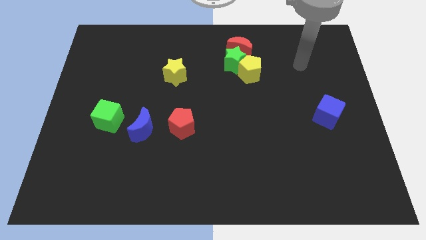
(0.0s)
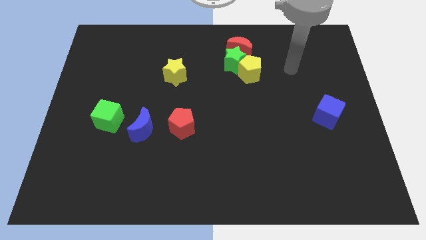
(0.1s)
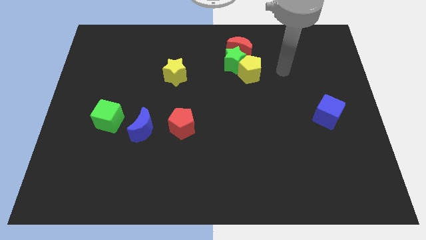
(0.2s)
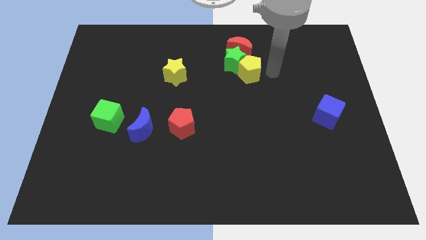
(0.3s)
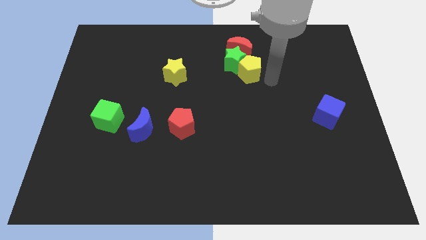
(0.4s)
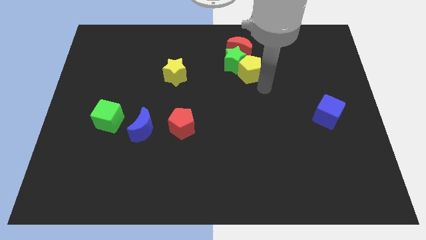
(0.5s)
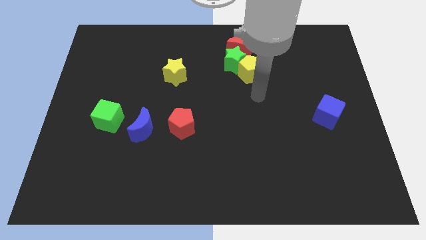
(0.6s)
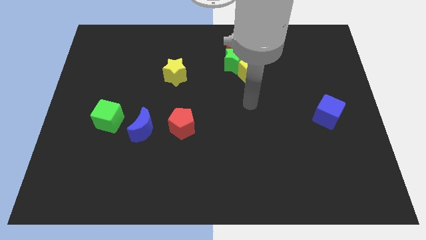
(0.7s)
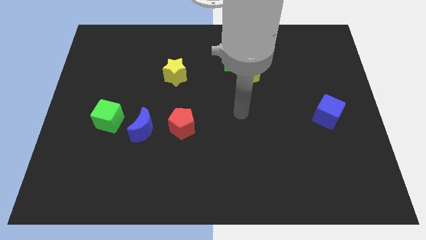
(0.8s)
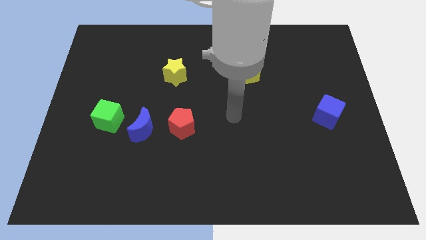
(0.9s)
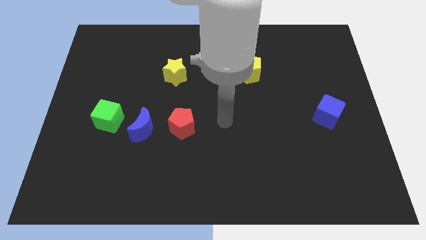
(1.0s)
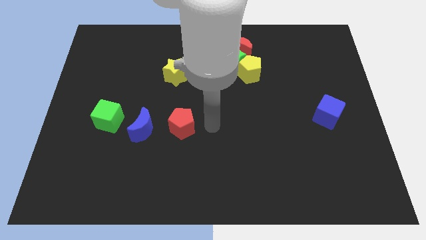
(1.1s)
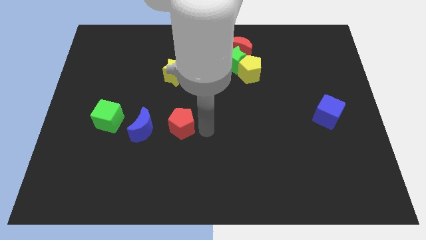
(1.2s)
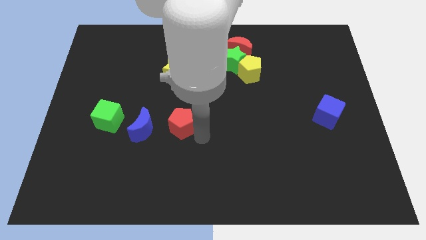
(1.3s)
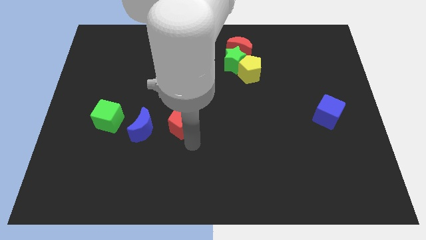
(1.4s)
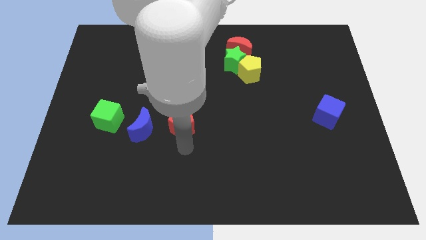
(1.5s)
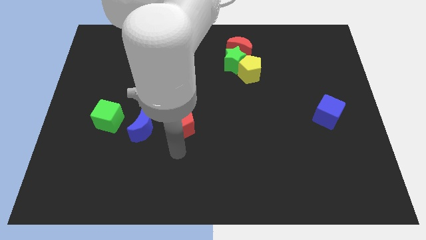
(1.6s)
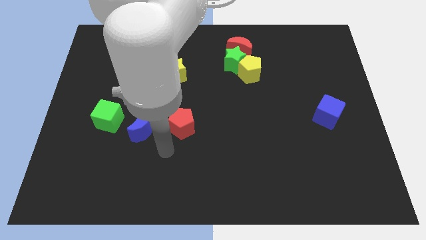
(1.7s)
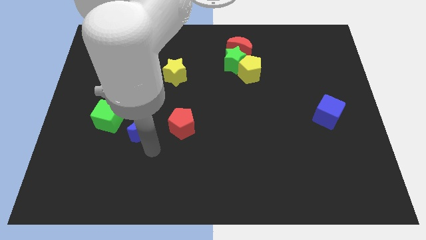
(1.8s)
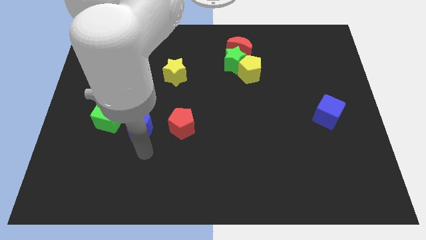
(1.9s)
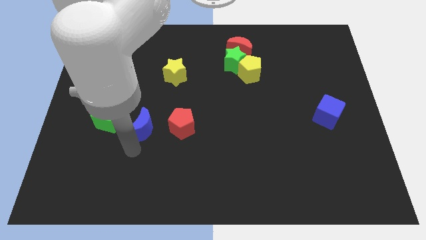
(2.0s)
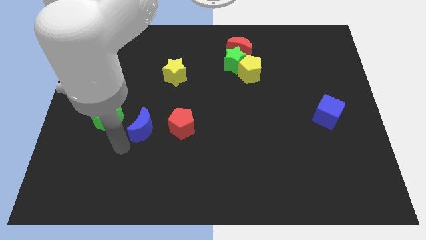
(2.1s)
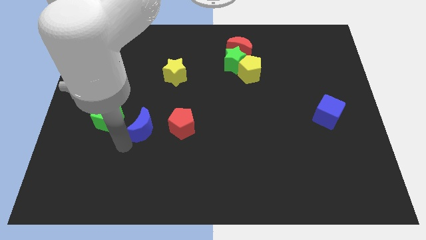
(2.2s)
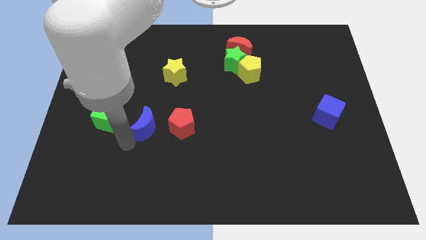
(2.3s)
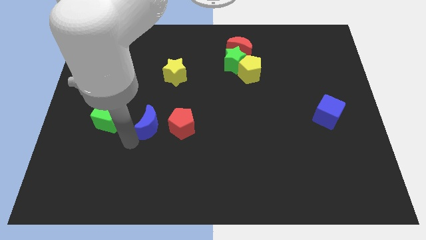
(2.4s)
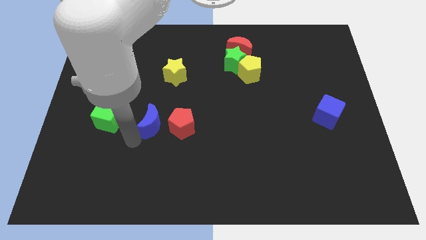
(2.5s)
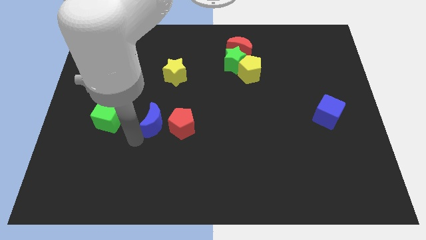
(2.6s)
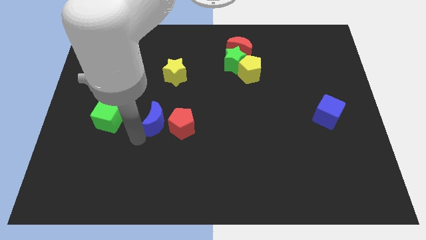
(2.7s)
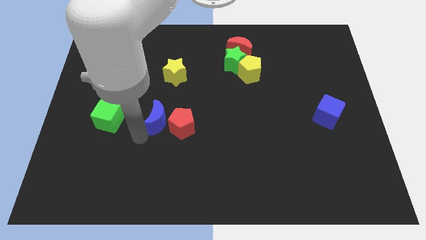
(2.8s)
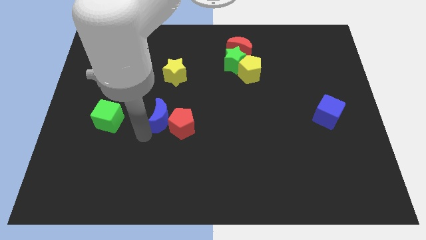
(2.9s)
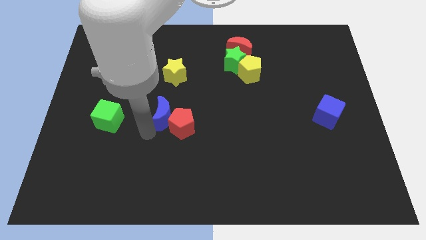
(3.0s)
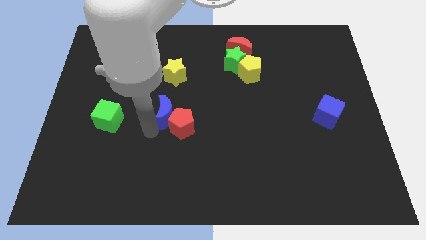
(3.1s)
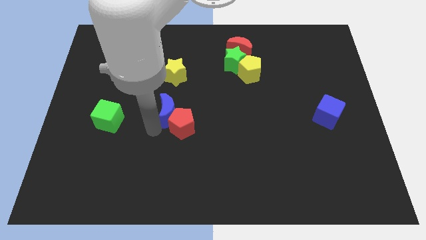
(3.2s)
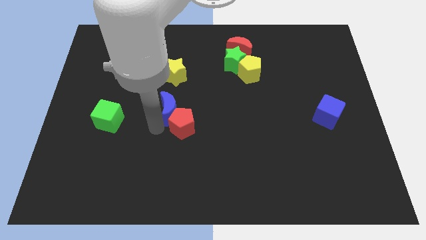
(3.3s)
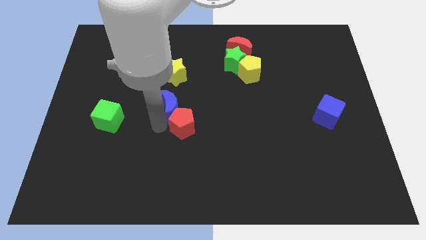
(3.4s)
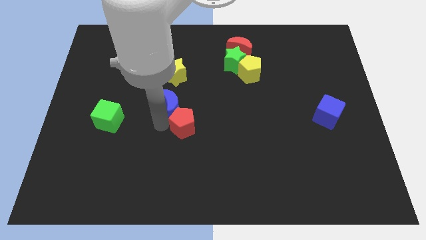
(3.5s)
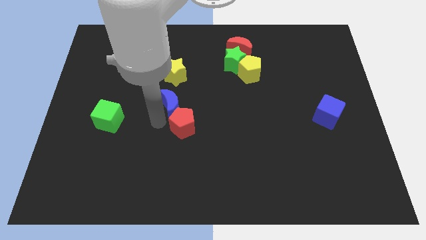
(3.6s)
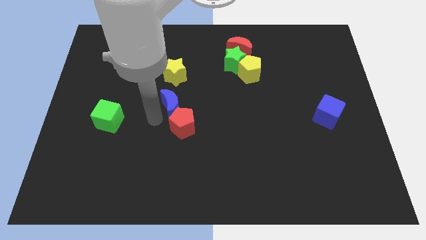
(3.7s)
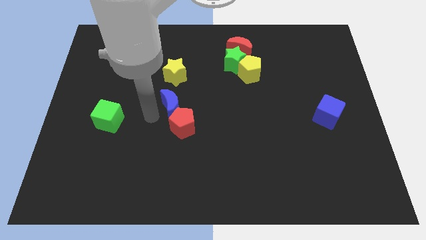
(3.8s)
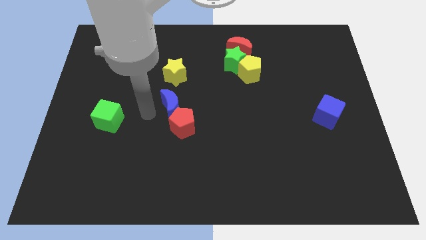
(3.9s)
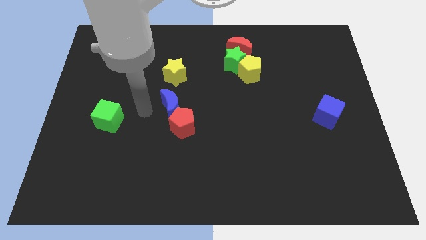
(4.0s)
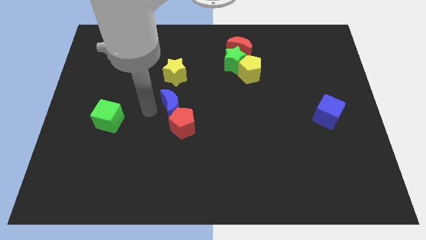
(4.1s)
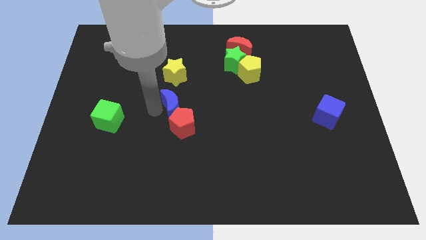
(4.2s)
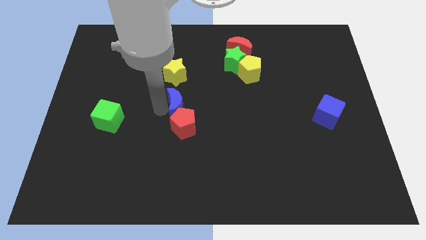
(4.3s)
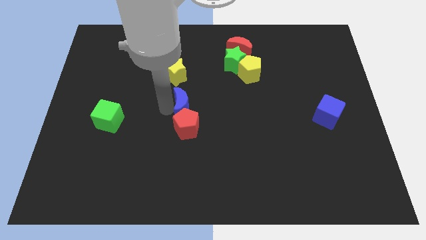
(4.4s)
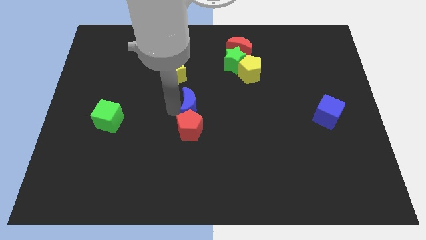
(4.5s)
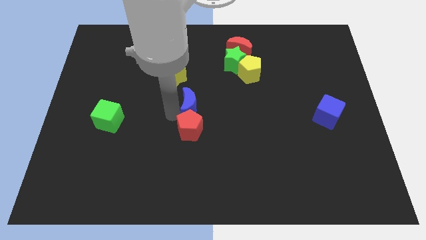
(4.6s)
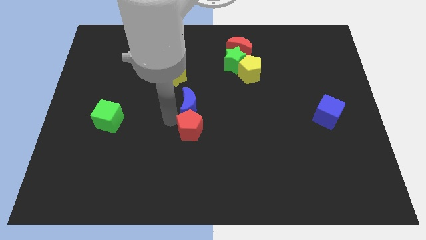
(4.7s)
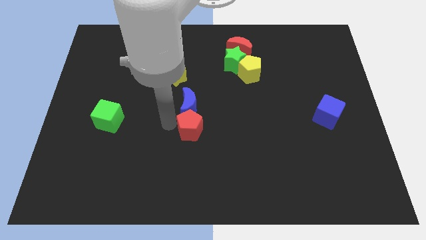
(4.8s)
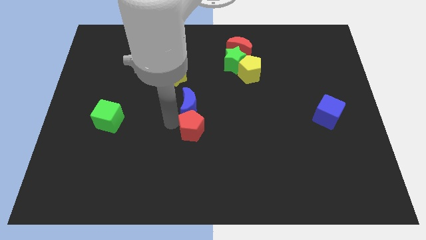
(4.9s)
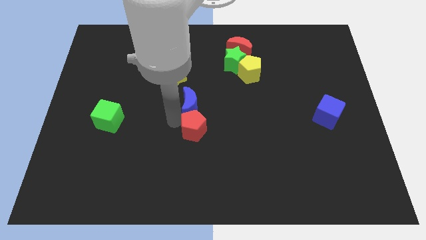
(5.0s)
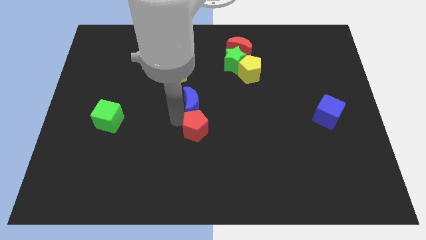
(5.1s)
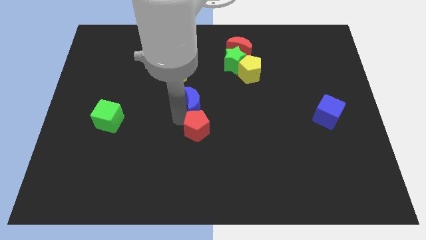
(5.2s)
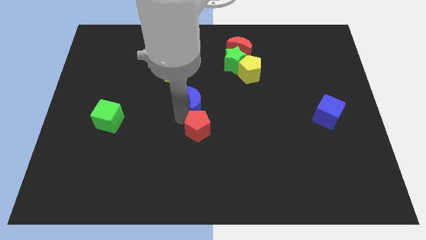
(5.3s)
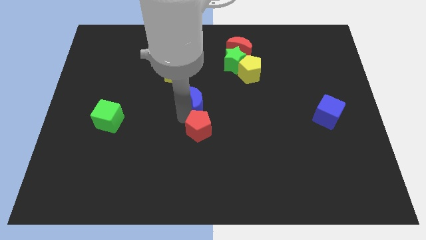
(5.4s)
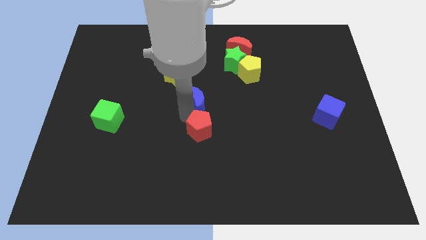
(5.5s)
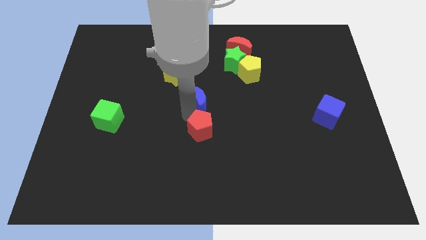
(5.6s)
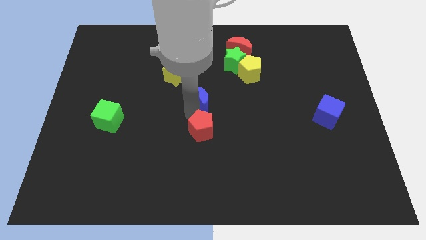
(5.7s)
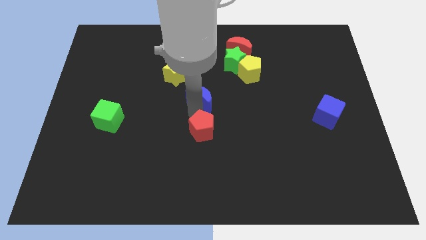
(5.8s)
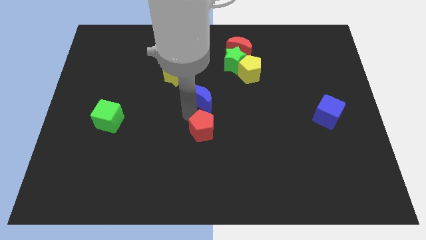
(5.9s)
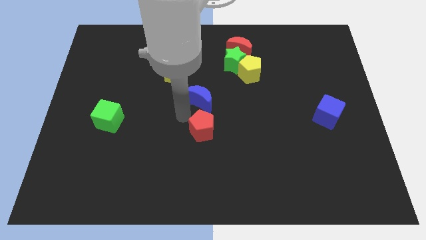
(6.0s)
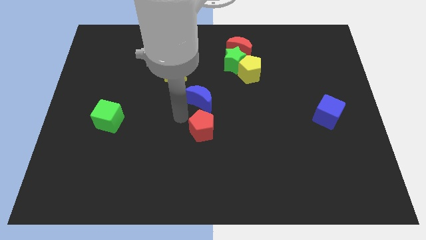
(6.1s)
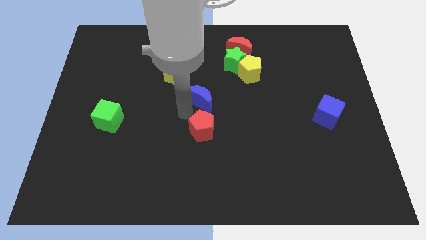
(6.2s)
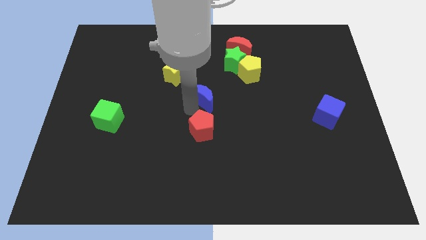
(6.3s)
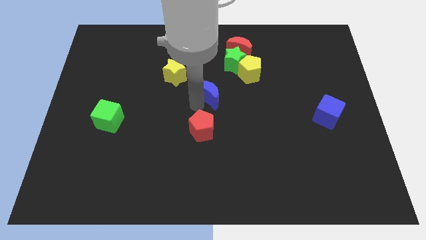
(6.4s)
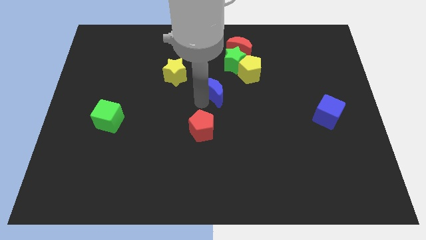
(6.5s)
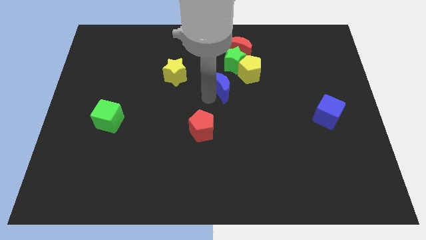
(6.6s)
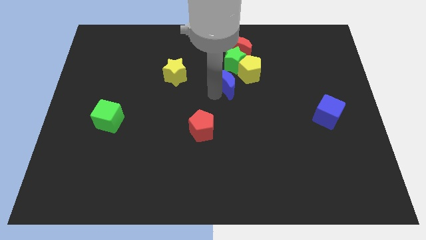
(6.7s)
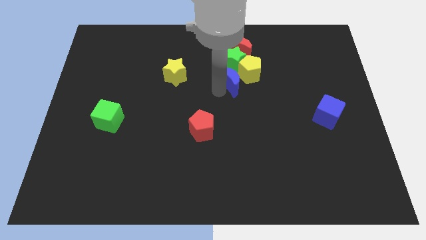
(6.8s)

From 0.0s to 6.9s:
move the blue moon close to the yellow pentagon
